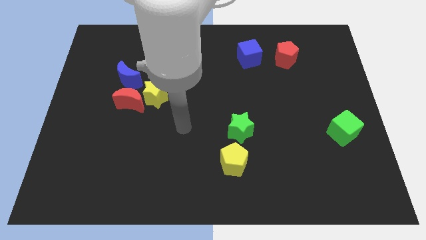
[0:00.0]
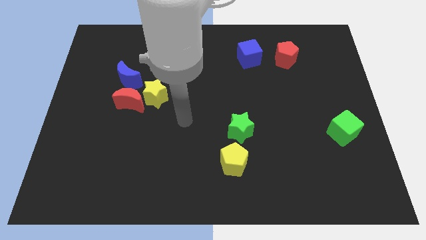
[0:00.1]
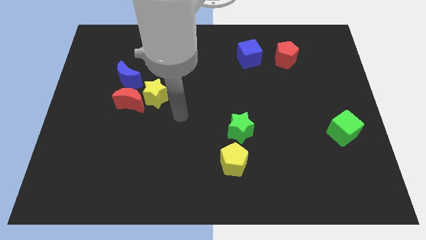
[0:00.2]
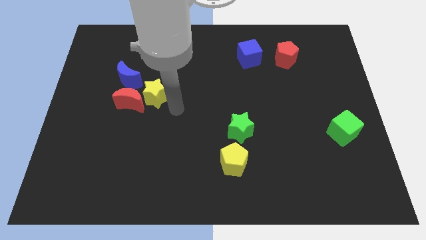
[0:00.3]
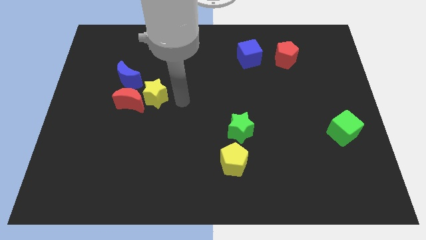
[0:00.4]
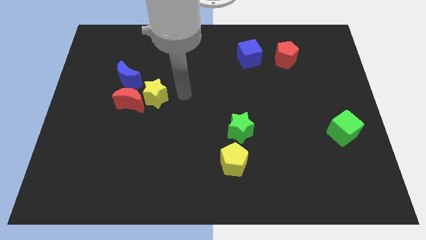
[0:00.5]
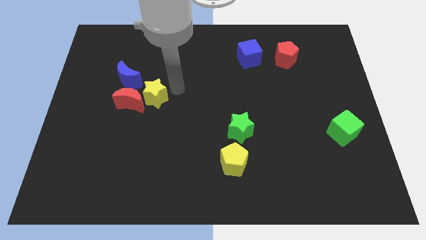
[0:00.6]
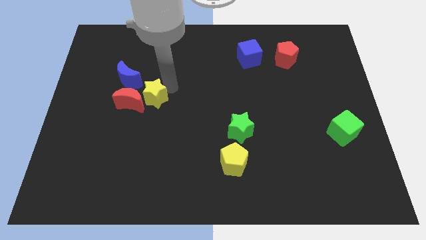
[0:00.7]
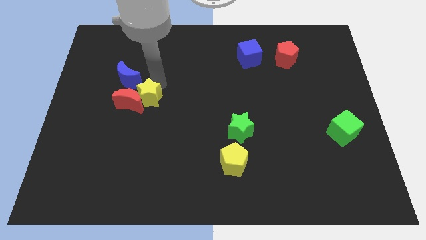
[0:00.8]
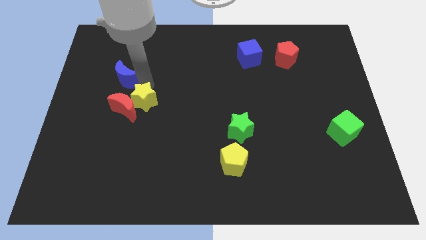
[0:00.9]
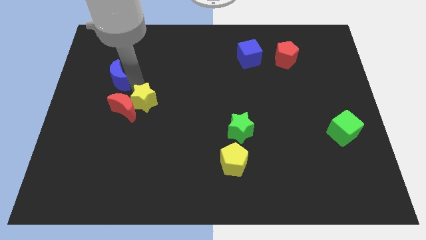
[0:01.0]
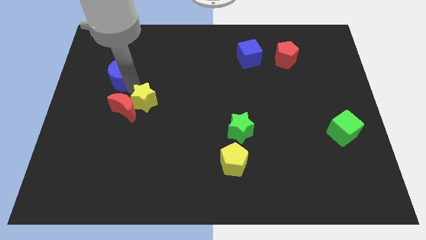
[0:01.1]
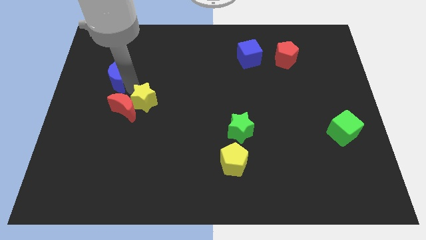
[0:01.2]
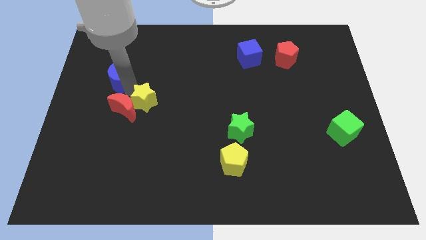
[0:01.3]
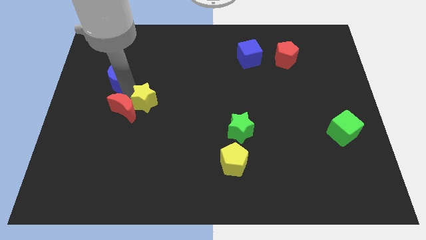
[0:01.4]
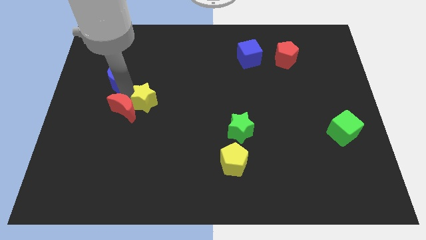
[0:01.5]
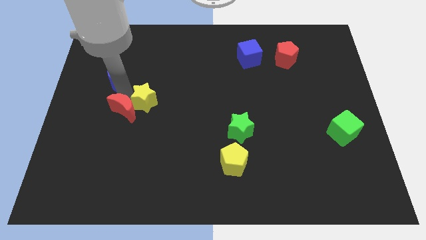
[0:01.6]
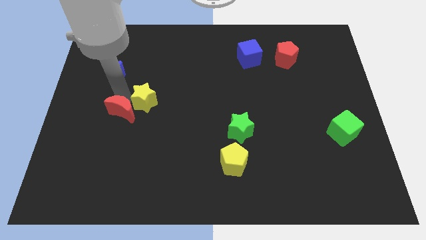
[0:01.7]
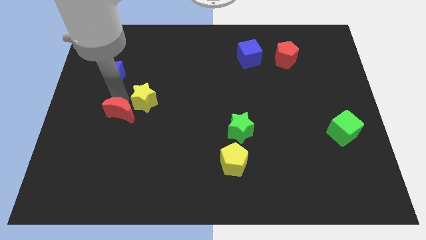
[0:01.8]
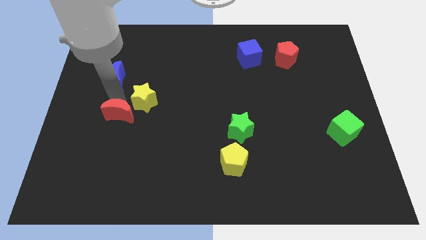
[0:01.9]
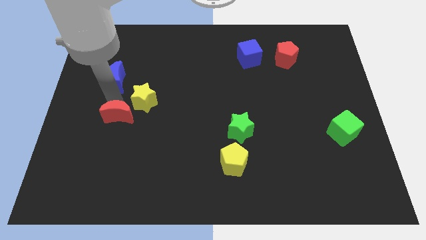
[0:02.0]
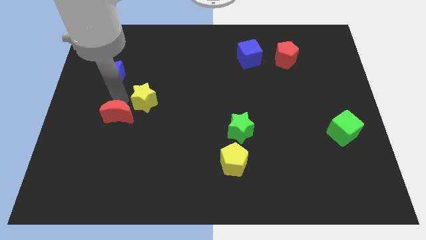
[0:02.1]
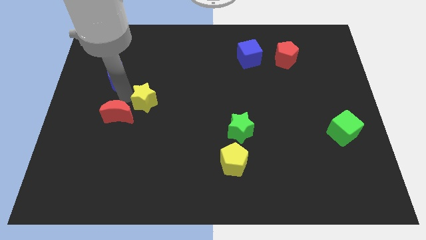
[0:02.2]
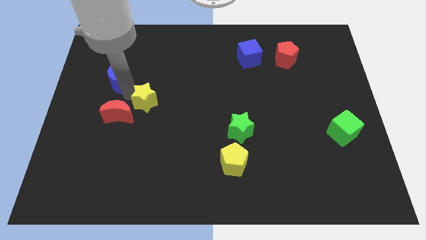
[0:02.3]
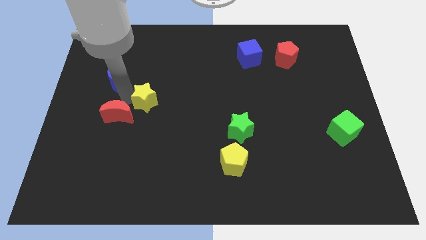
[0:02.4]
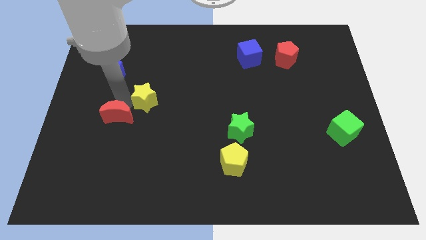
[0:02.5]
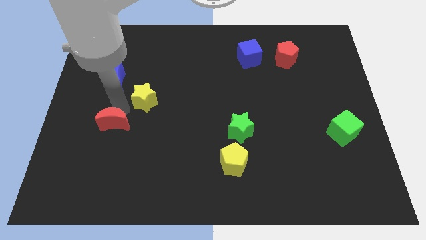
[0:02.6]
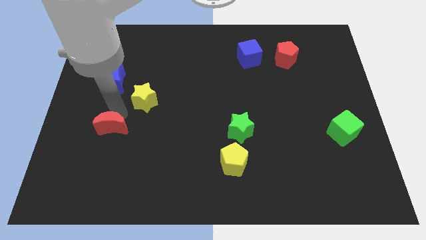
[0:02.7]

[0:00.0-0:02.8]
pull the red moon apart from the yellow star and blue moon

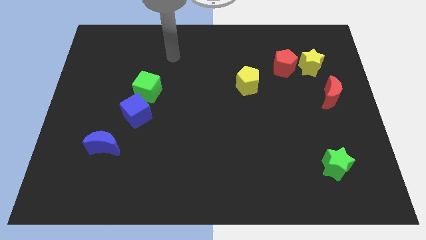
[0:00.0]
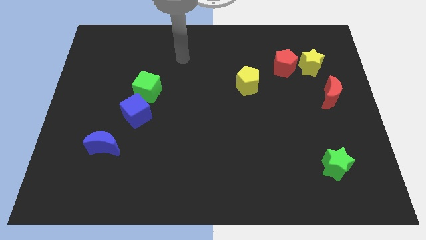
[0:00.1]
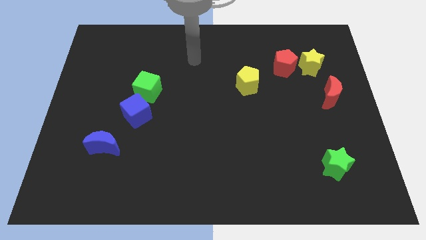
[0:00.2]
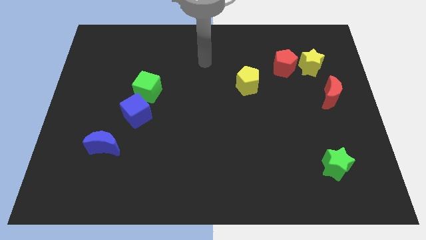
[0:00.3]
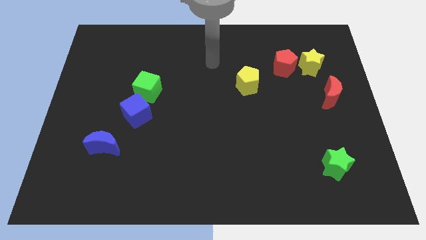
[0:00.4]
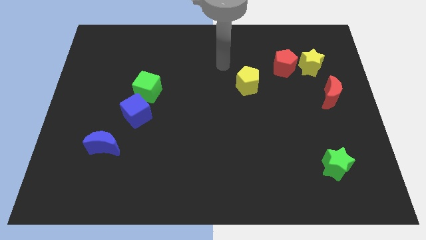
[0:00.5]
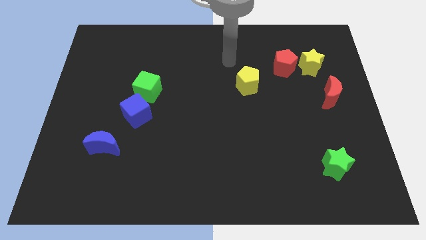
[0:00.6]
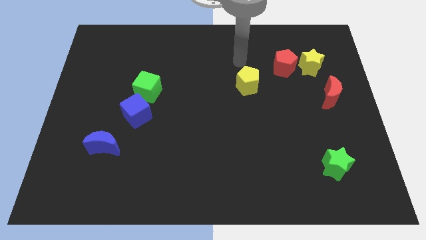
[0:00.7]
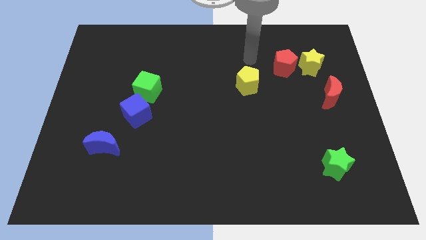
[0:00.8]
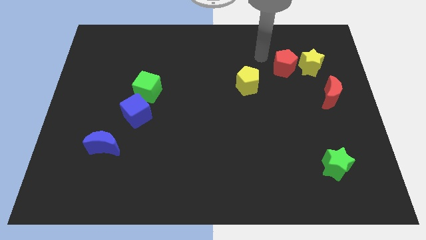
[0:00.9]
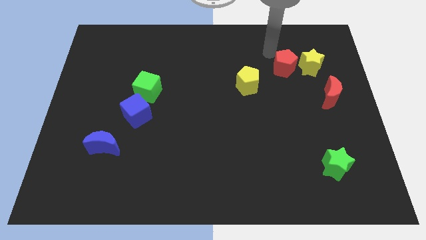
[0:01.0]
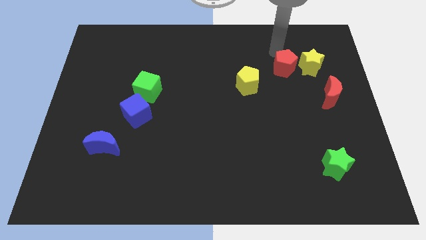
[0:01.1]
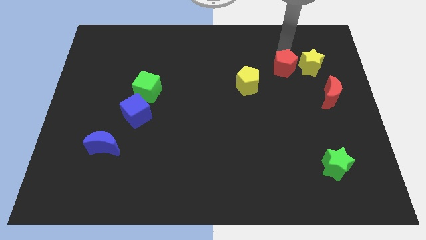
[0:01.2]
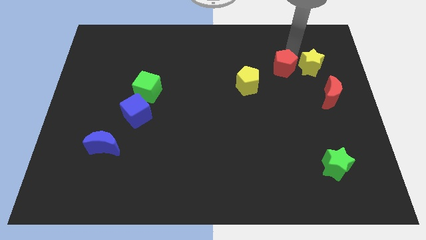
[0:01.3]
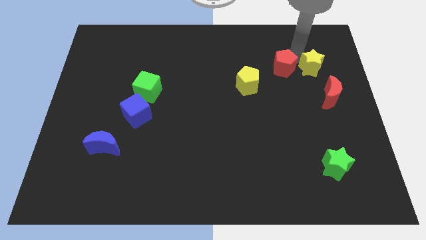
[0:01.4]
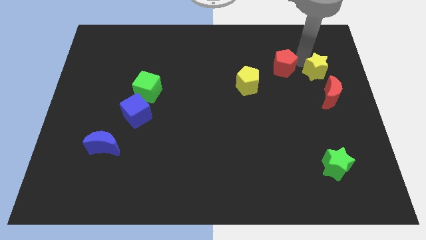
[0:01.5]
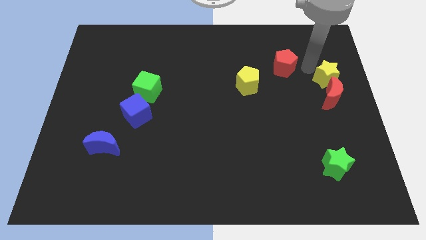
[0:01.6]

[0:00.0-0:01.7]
pull the red pentagon apart from the yellow star

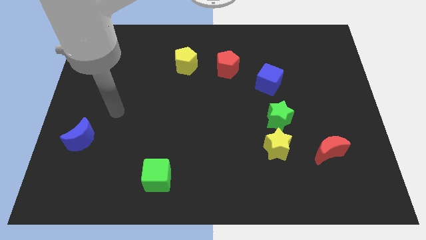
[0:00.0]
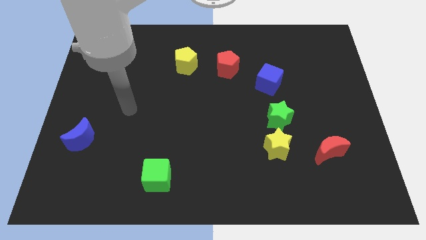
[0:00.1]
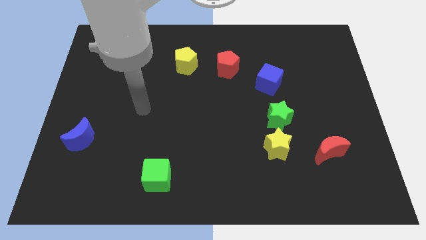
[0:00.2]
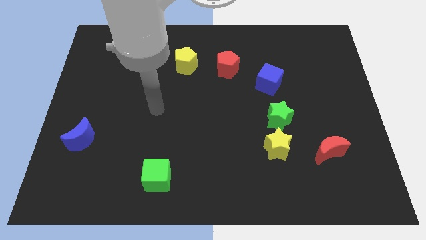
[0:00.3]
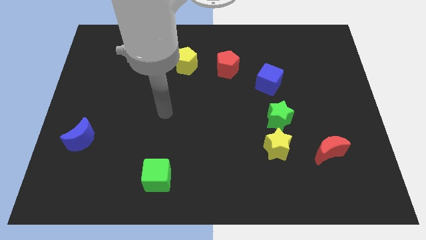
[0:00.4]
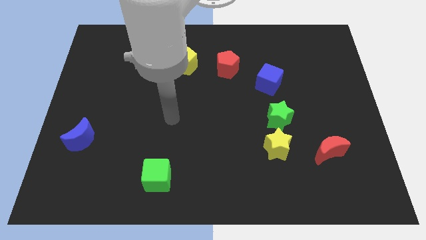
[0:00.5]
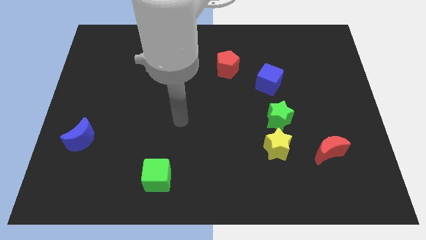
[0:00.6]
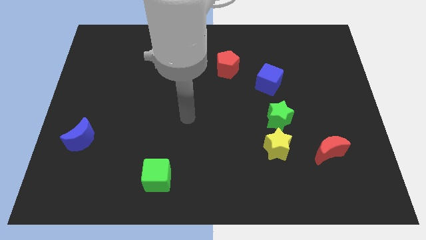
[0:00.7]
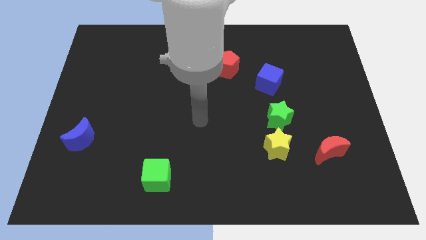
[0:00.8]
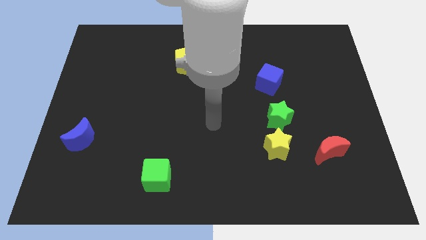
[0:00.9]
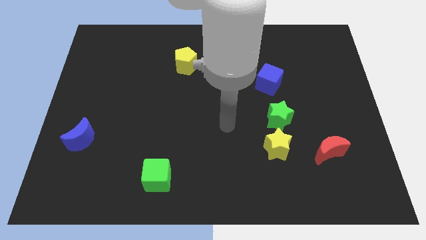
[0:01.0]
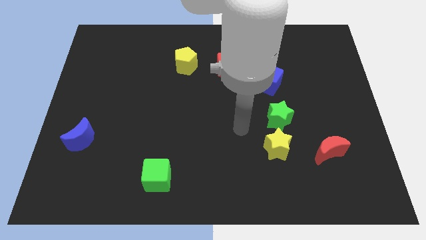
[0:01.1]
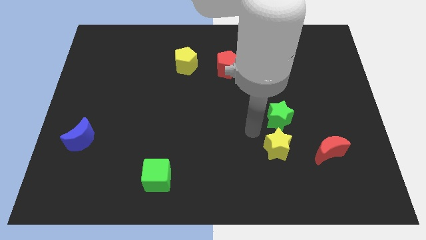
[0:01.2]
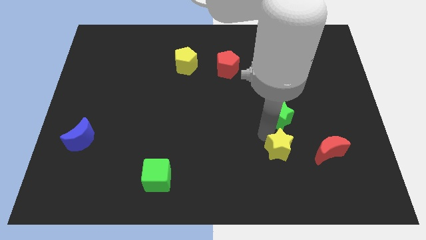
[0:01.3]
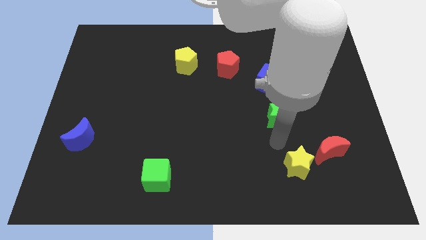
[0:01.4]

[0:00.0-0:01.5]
separate the green star from the yellow star

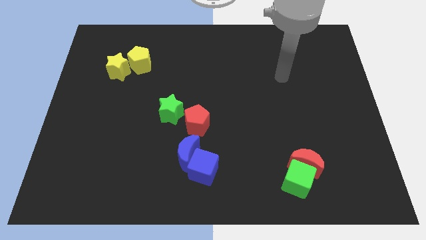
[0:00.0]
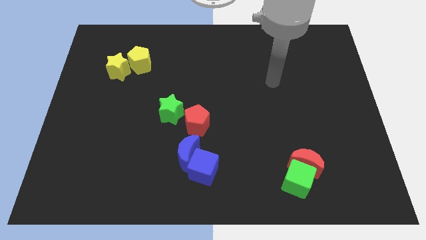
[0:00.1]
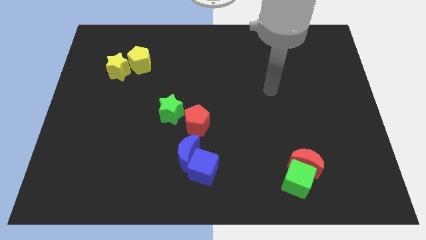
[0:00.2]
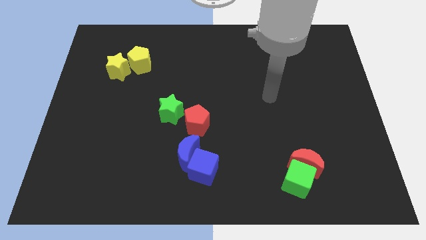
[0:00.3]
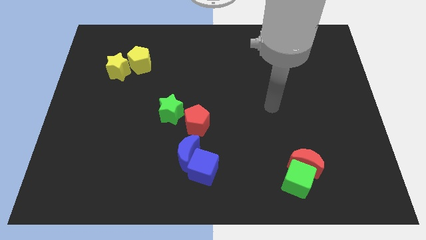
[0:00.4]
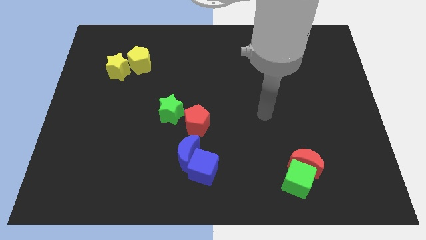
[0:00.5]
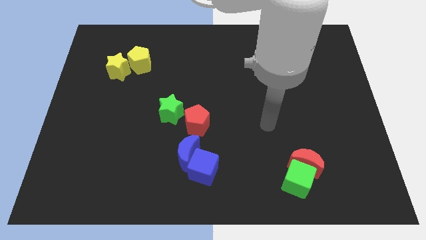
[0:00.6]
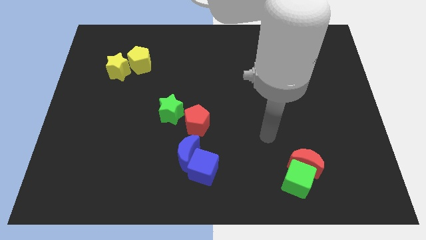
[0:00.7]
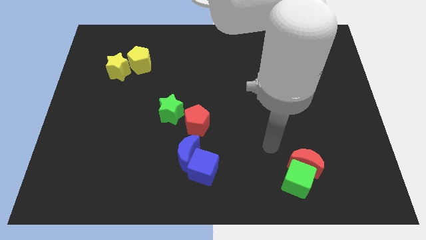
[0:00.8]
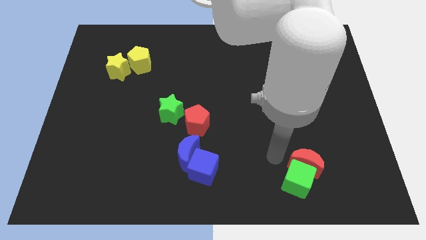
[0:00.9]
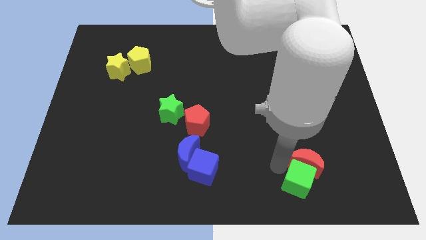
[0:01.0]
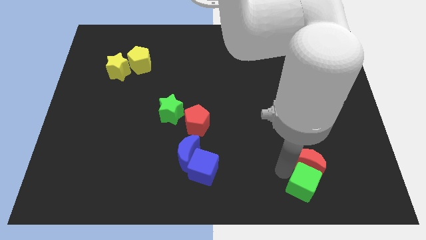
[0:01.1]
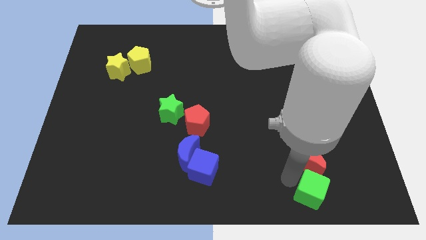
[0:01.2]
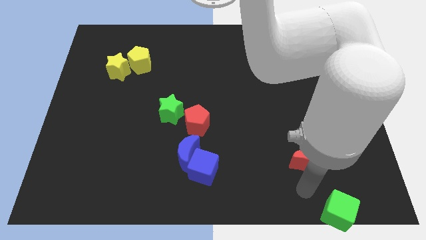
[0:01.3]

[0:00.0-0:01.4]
pull the red moon apart from the green cube

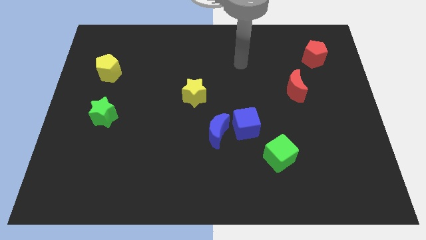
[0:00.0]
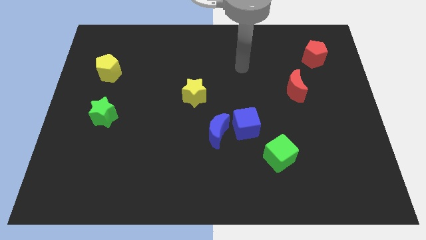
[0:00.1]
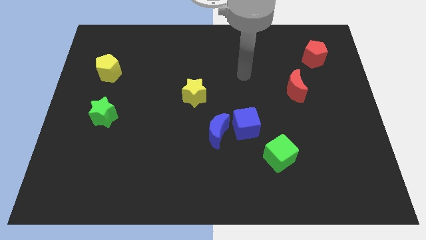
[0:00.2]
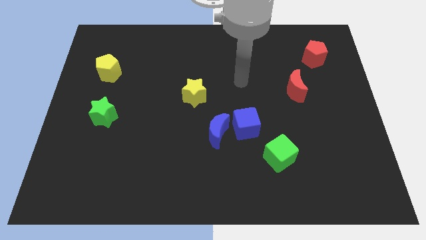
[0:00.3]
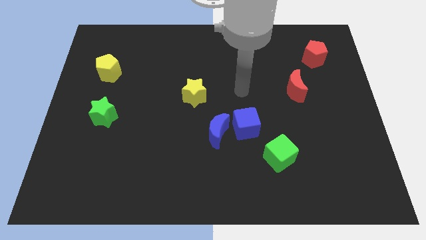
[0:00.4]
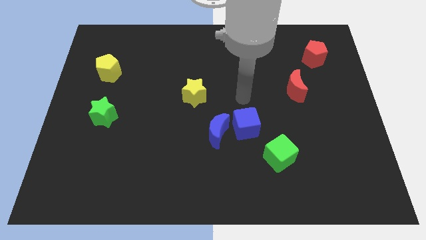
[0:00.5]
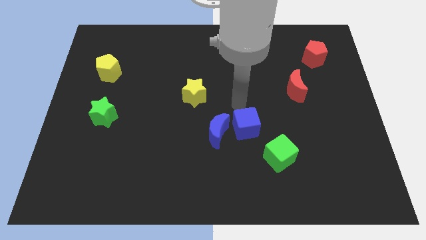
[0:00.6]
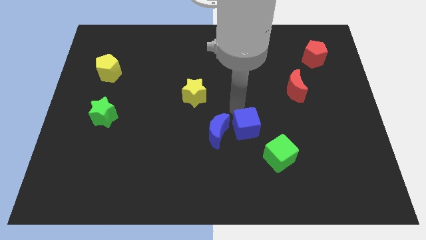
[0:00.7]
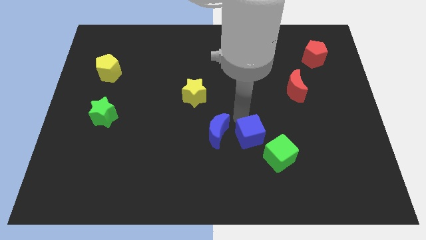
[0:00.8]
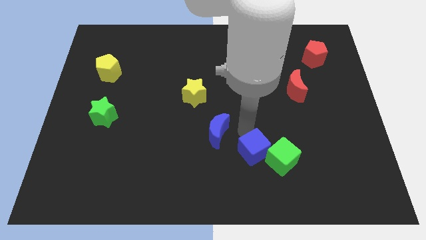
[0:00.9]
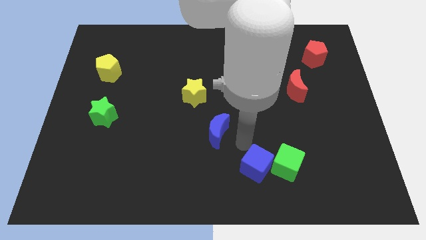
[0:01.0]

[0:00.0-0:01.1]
separate the blue moon from the blue cube

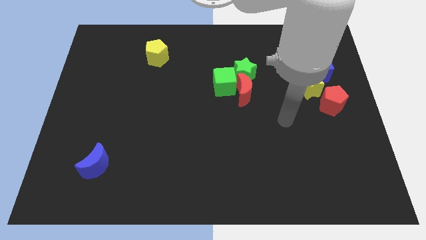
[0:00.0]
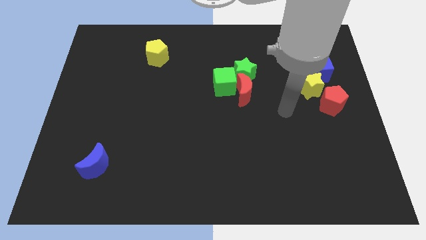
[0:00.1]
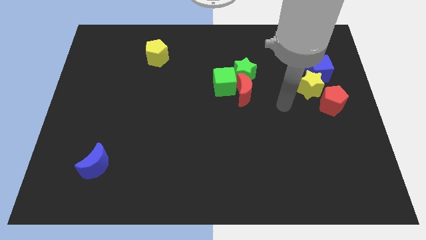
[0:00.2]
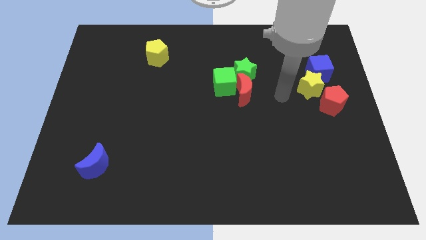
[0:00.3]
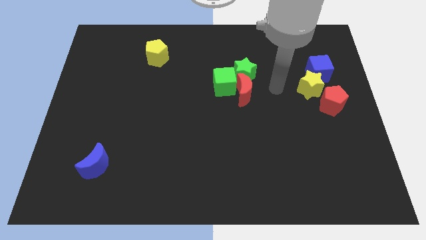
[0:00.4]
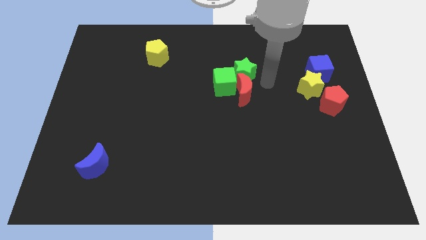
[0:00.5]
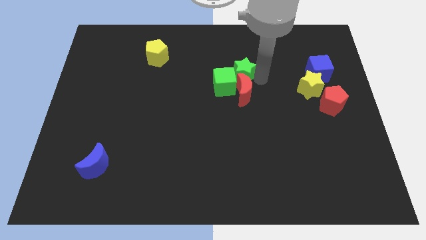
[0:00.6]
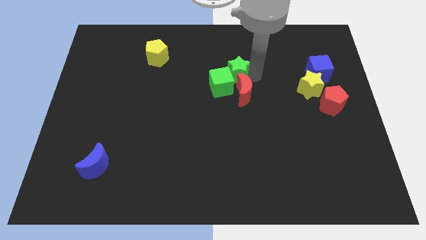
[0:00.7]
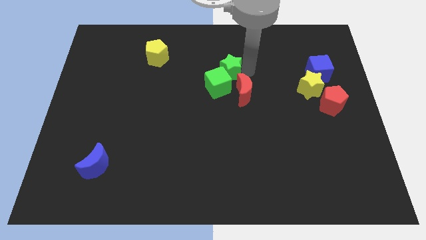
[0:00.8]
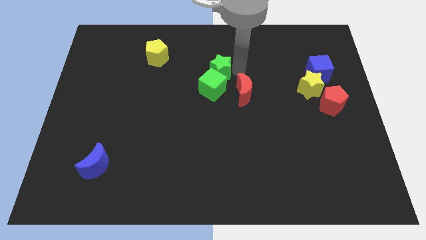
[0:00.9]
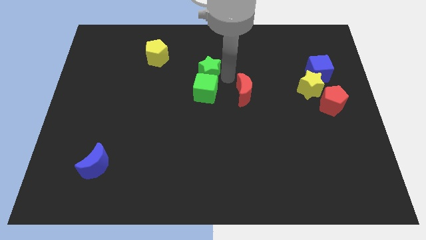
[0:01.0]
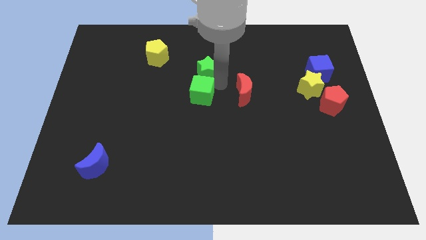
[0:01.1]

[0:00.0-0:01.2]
move the red moon away from the green cube and green star
